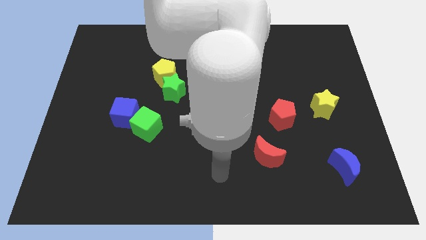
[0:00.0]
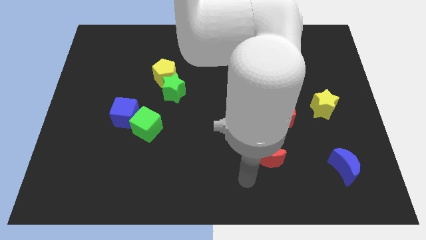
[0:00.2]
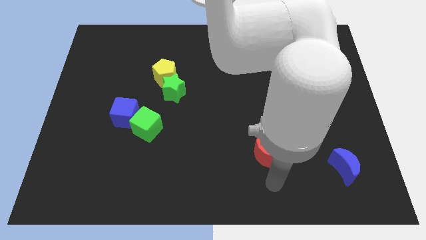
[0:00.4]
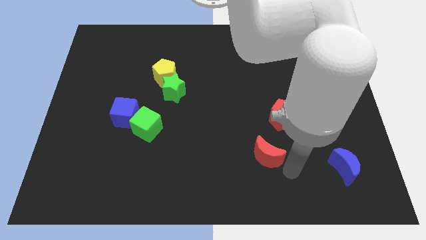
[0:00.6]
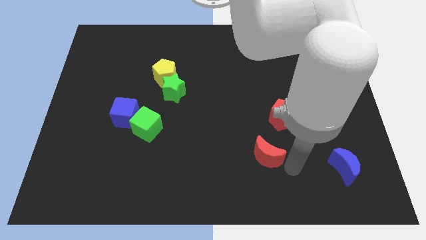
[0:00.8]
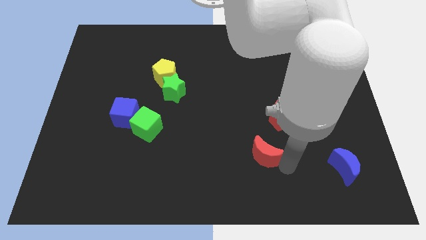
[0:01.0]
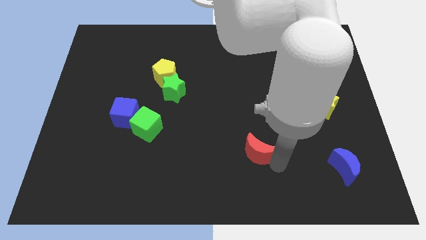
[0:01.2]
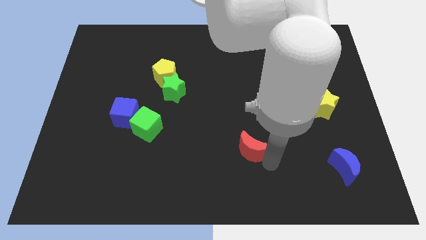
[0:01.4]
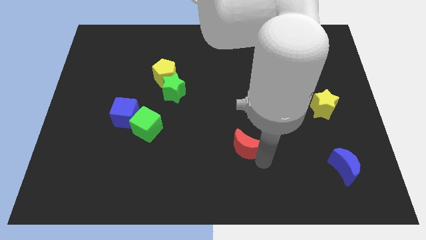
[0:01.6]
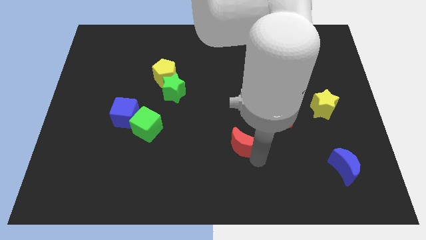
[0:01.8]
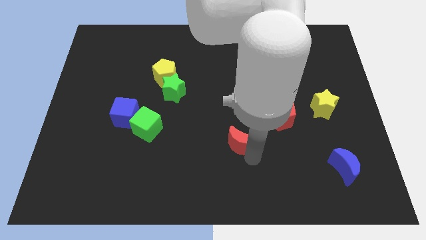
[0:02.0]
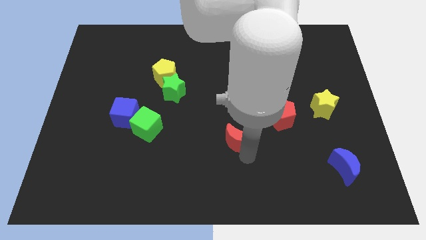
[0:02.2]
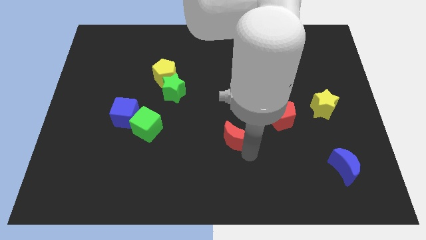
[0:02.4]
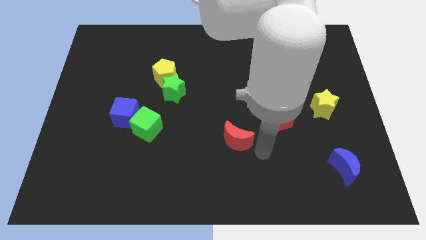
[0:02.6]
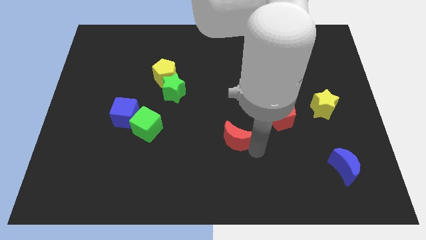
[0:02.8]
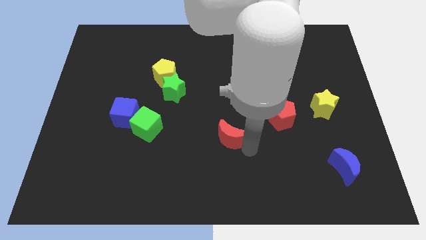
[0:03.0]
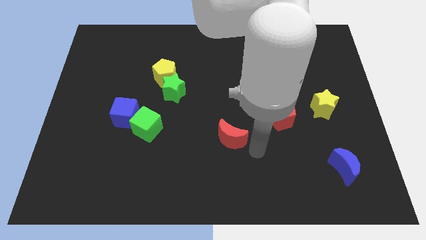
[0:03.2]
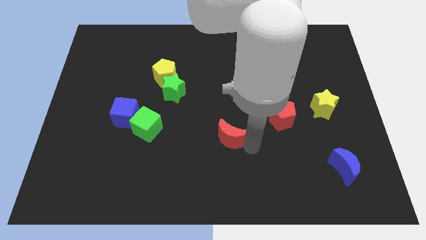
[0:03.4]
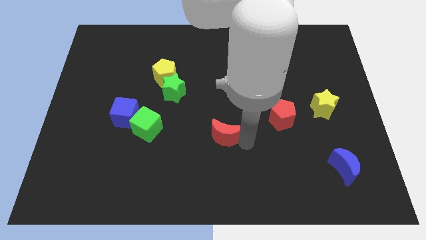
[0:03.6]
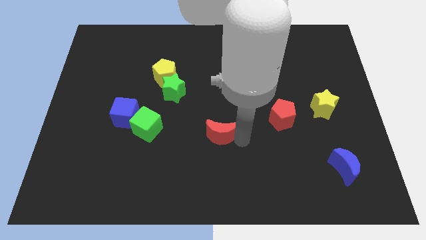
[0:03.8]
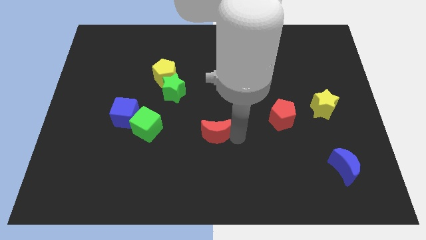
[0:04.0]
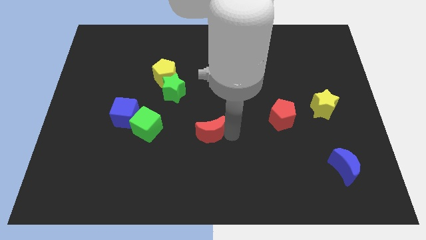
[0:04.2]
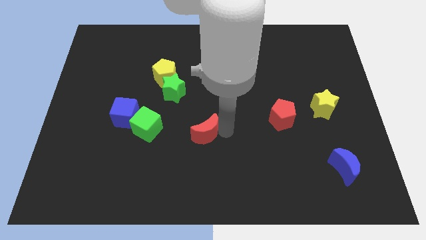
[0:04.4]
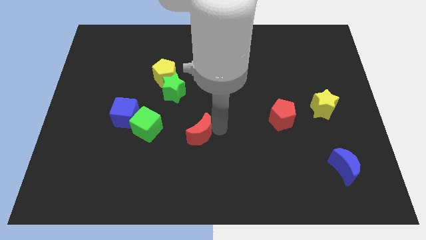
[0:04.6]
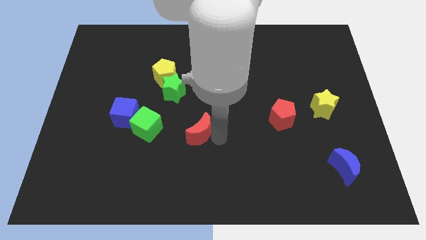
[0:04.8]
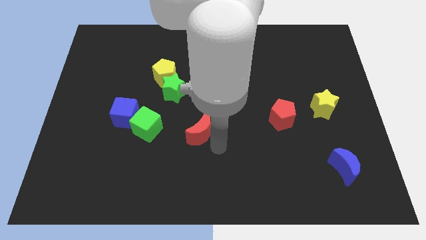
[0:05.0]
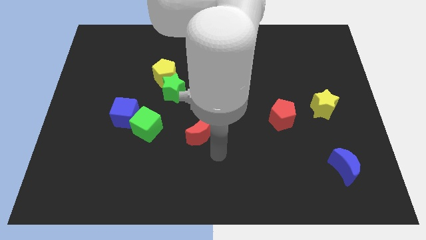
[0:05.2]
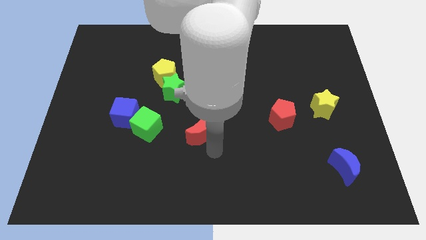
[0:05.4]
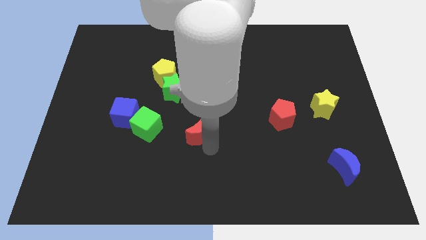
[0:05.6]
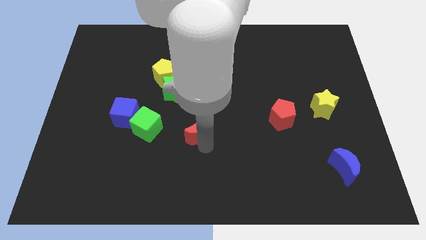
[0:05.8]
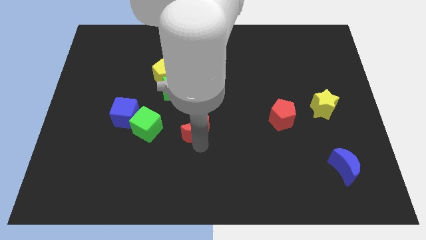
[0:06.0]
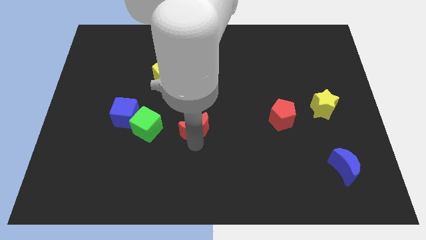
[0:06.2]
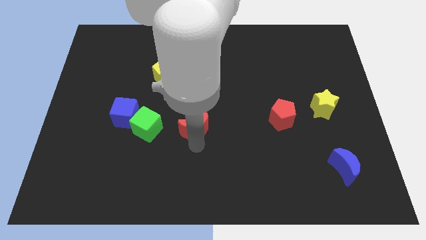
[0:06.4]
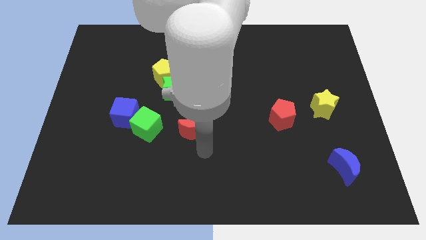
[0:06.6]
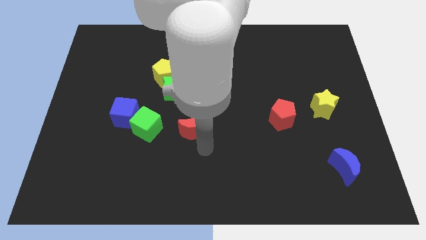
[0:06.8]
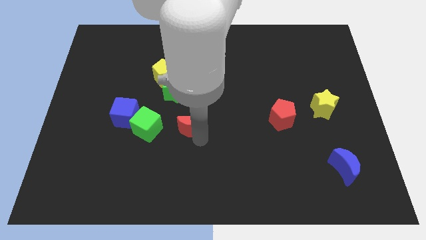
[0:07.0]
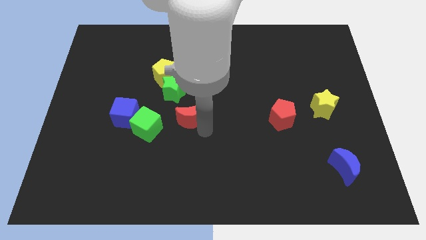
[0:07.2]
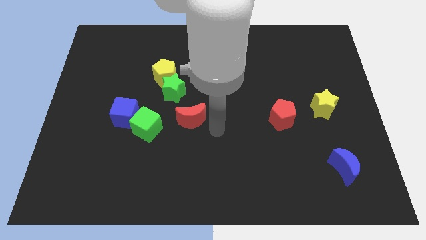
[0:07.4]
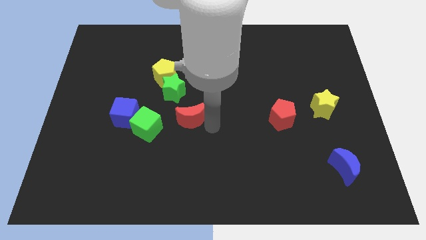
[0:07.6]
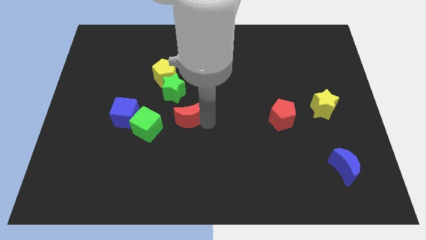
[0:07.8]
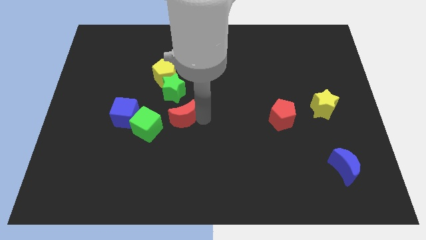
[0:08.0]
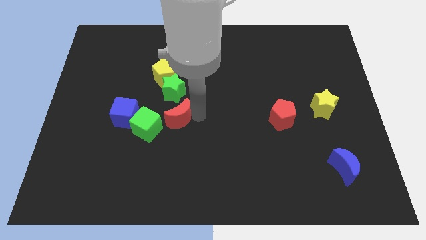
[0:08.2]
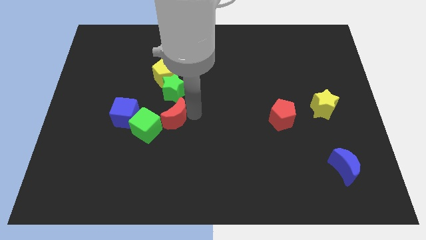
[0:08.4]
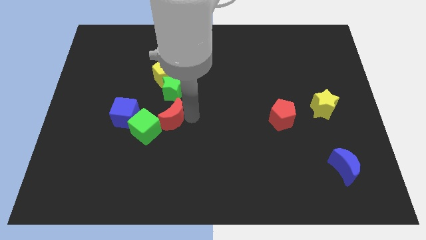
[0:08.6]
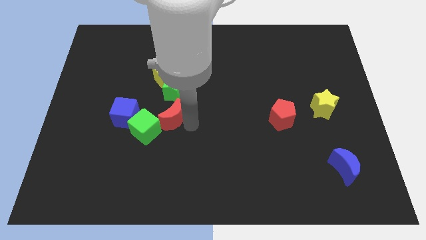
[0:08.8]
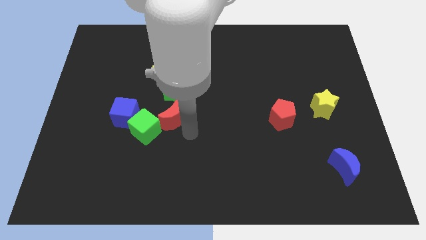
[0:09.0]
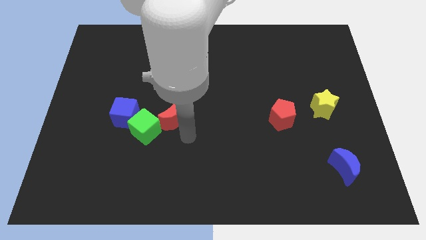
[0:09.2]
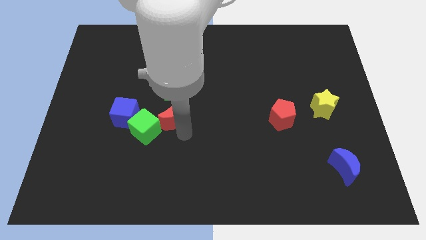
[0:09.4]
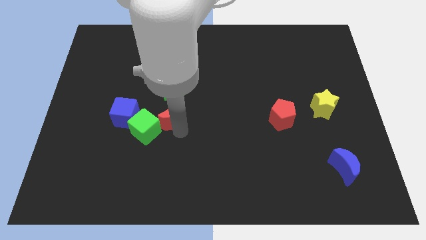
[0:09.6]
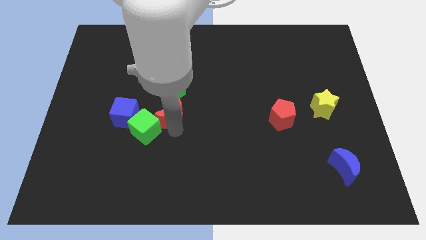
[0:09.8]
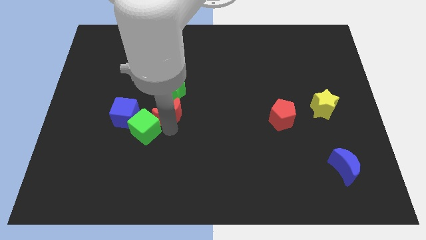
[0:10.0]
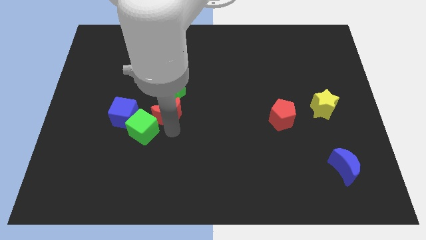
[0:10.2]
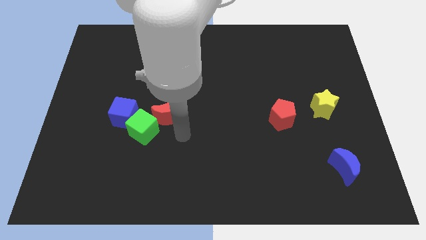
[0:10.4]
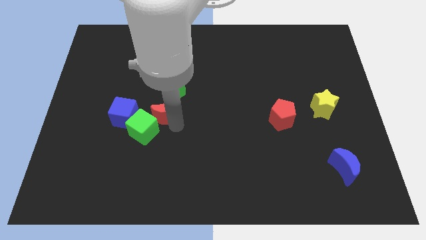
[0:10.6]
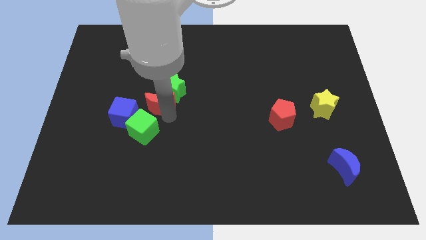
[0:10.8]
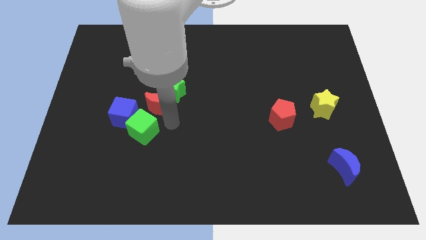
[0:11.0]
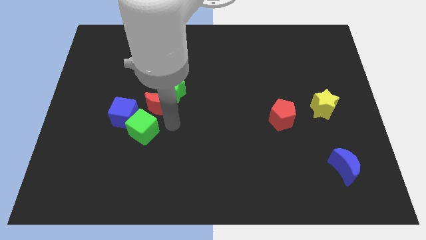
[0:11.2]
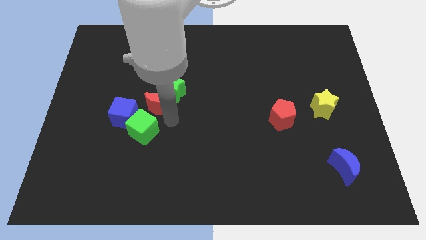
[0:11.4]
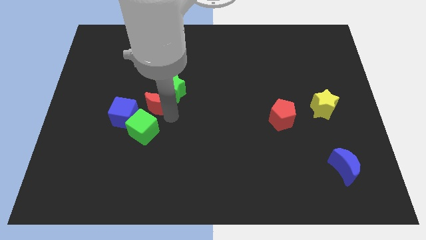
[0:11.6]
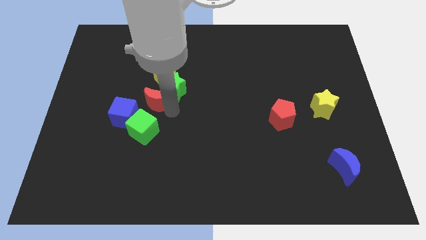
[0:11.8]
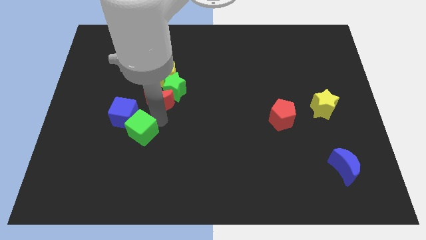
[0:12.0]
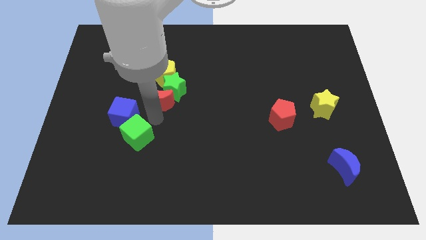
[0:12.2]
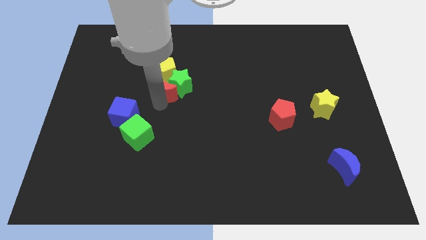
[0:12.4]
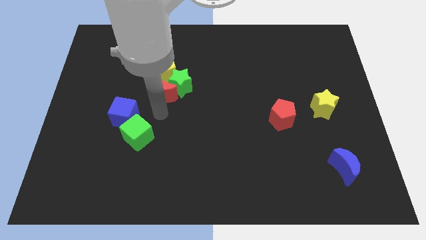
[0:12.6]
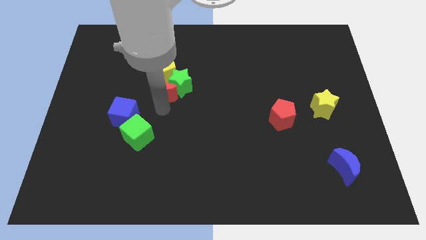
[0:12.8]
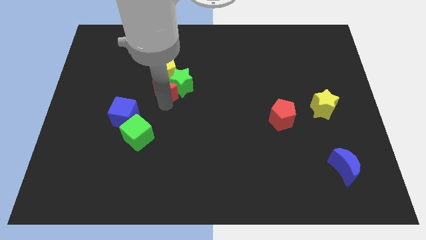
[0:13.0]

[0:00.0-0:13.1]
move the red moon close to the yellow pentagon

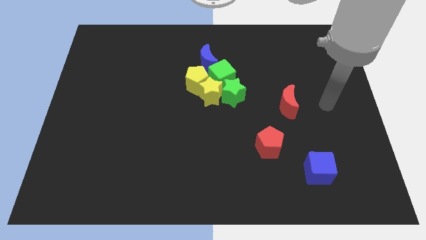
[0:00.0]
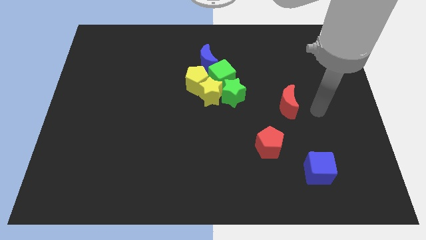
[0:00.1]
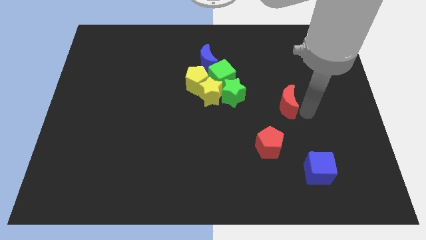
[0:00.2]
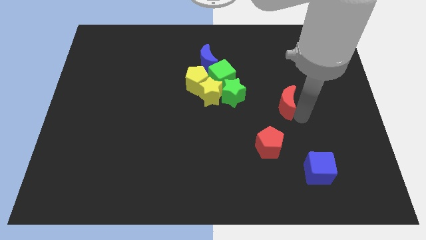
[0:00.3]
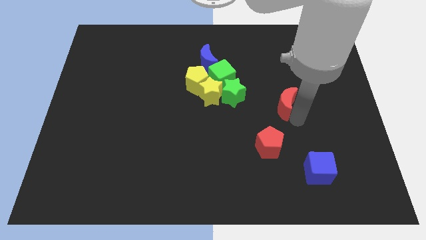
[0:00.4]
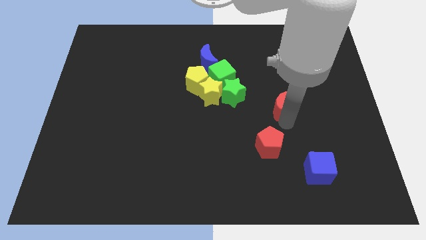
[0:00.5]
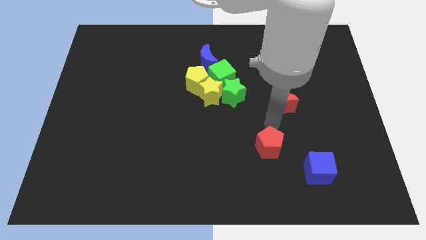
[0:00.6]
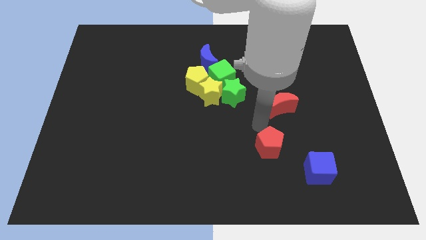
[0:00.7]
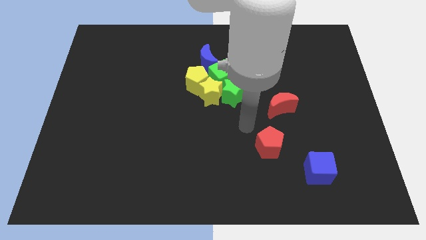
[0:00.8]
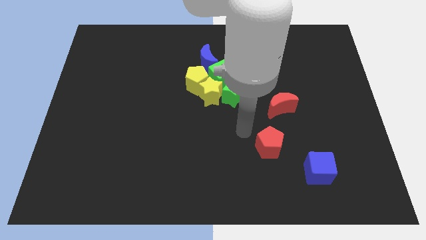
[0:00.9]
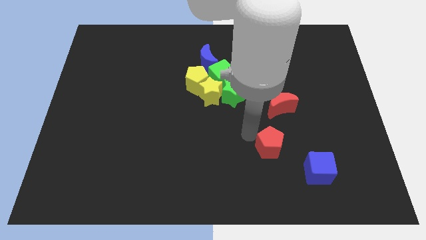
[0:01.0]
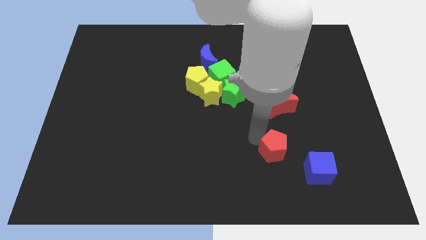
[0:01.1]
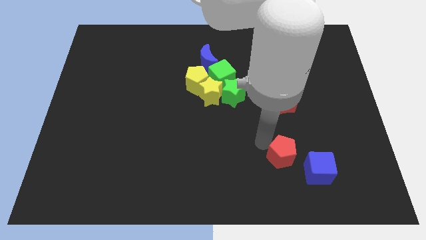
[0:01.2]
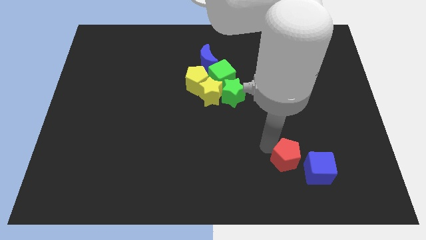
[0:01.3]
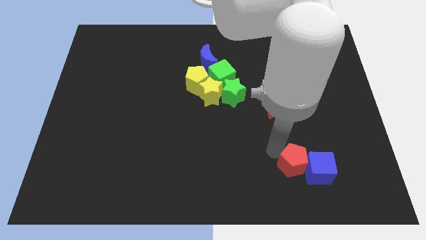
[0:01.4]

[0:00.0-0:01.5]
push the red pentagon to the blue cube
